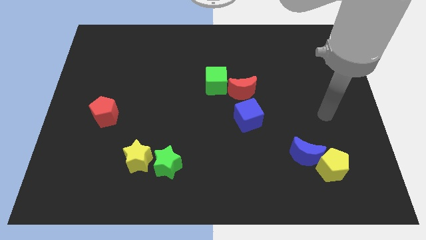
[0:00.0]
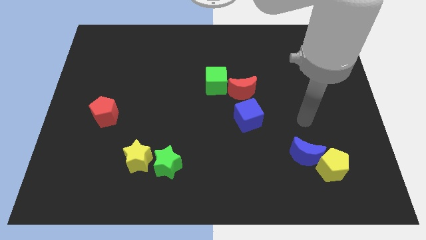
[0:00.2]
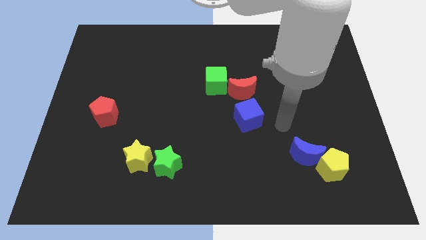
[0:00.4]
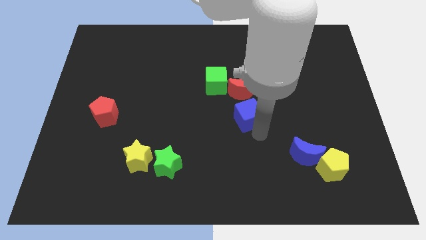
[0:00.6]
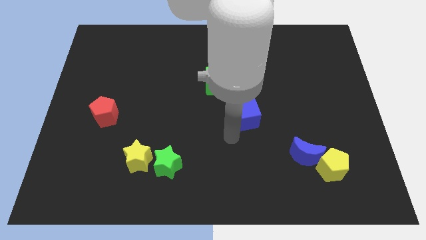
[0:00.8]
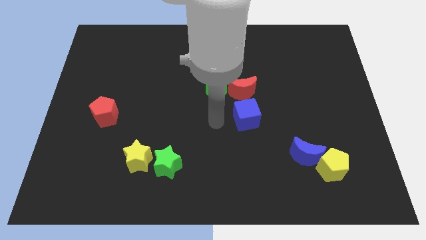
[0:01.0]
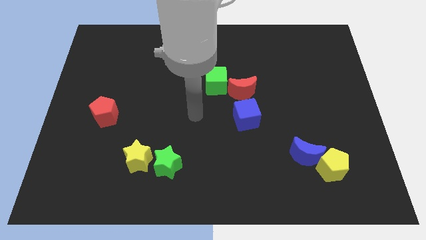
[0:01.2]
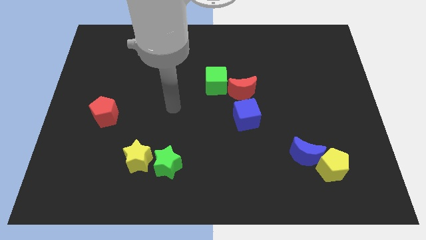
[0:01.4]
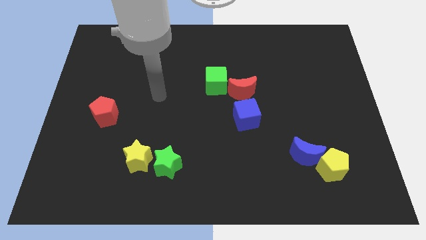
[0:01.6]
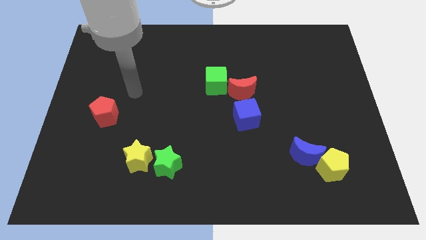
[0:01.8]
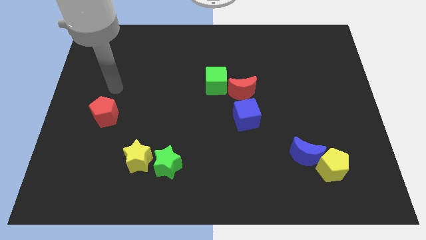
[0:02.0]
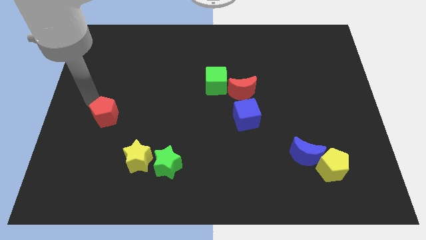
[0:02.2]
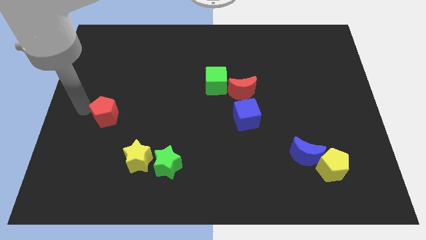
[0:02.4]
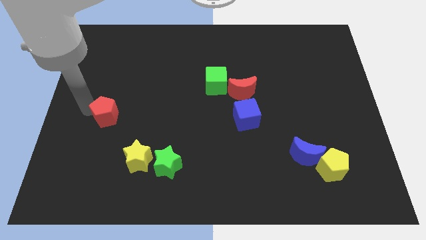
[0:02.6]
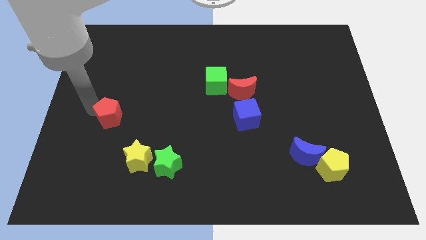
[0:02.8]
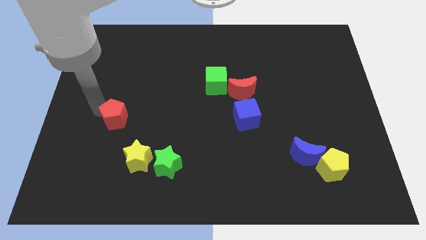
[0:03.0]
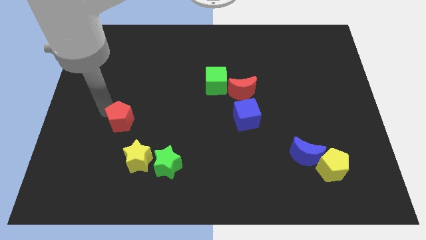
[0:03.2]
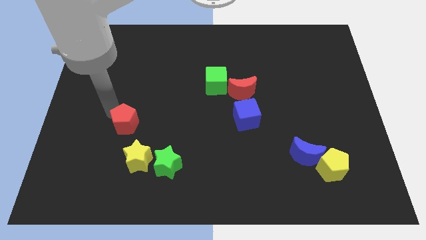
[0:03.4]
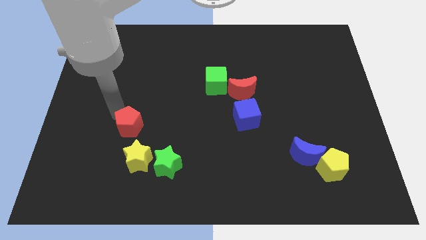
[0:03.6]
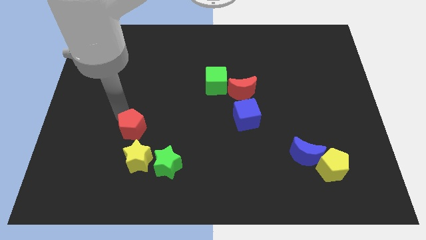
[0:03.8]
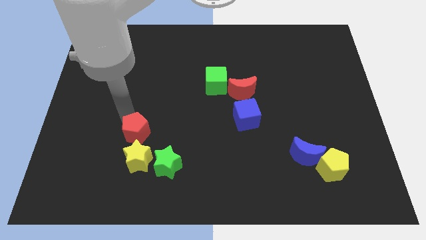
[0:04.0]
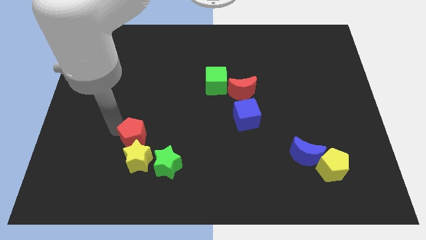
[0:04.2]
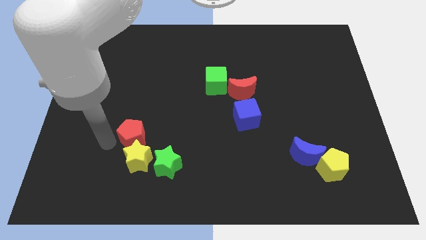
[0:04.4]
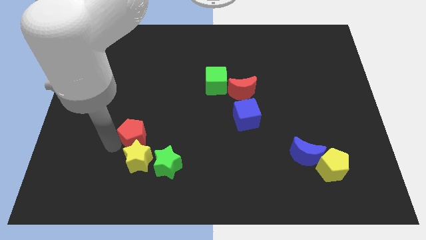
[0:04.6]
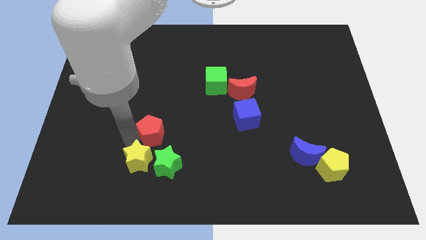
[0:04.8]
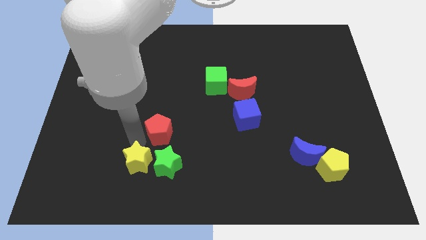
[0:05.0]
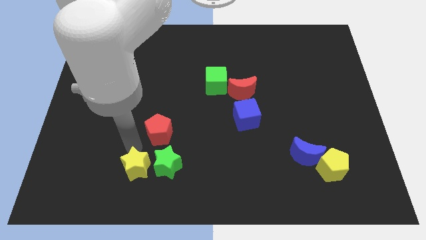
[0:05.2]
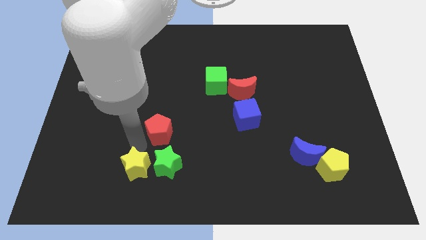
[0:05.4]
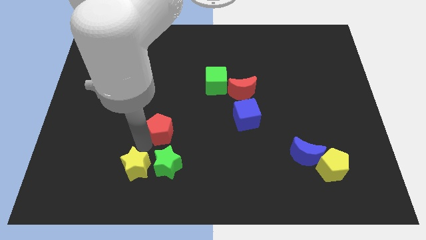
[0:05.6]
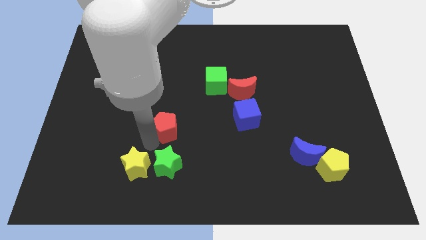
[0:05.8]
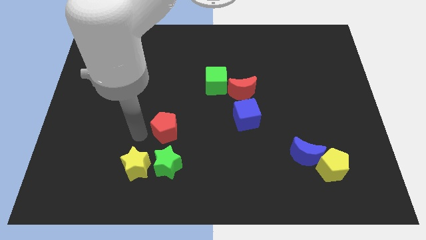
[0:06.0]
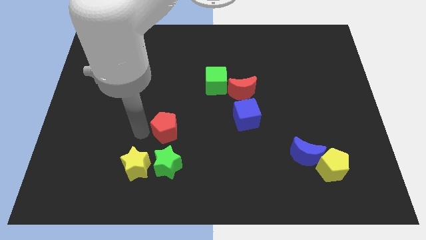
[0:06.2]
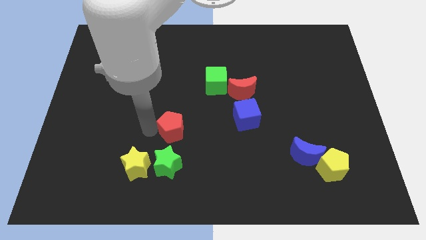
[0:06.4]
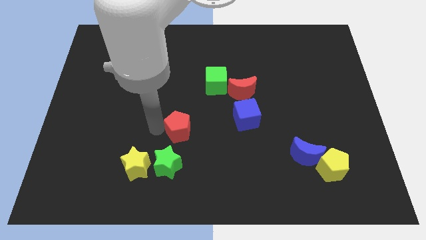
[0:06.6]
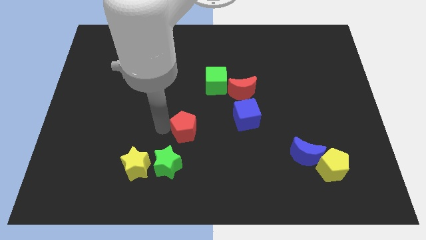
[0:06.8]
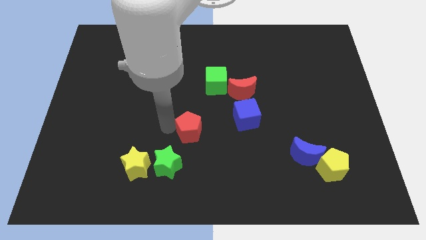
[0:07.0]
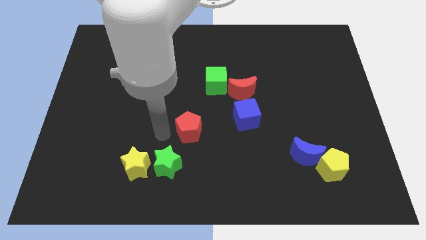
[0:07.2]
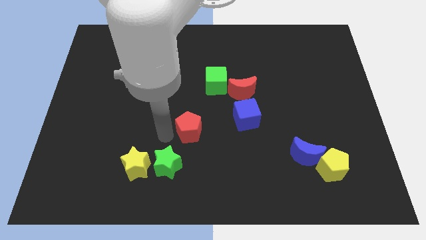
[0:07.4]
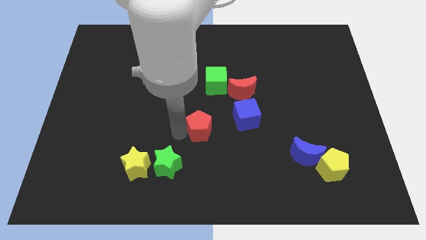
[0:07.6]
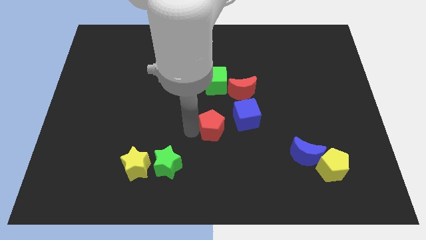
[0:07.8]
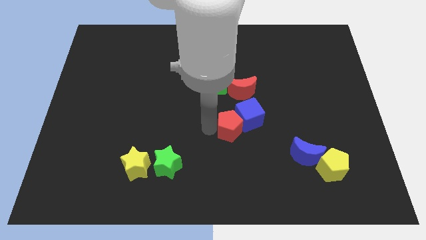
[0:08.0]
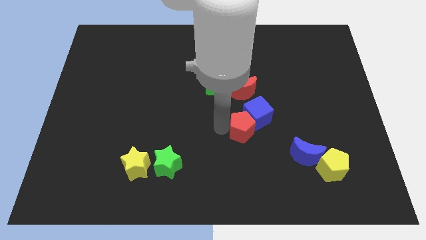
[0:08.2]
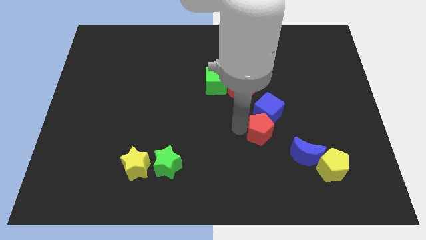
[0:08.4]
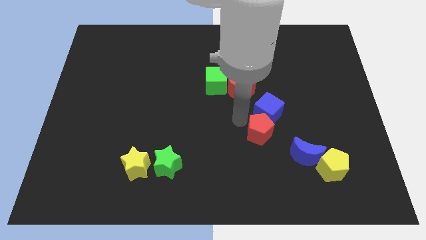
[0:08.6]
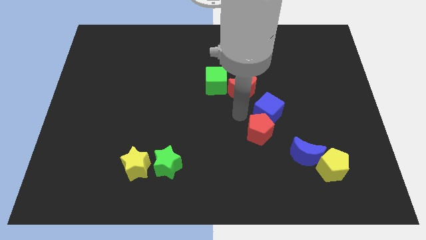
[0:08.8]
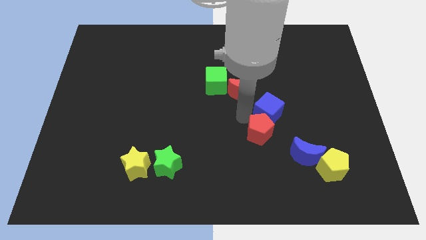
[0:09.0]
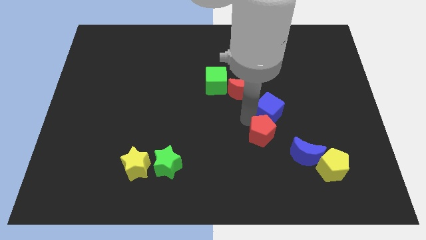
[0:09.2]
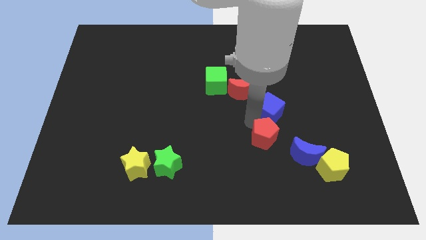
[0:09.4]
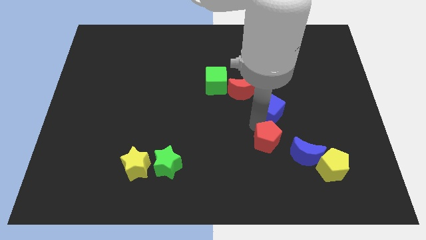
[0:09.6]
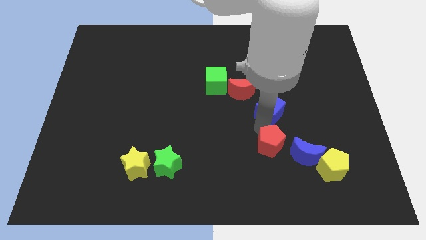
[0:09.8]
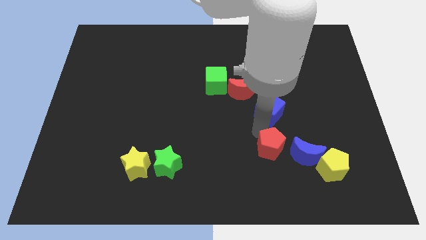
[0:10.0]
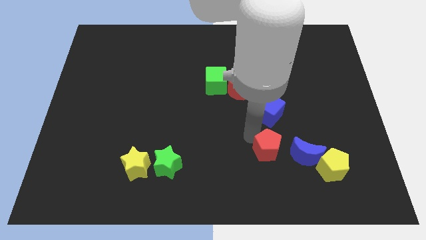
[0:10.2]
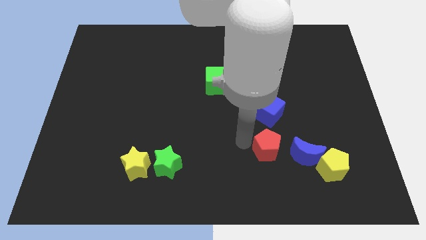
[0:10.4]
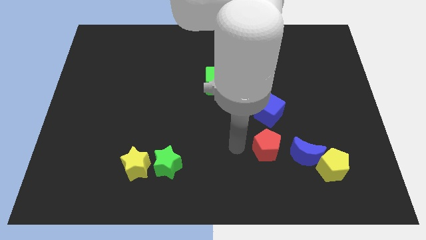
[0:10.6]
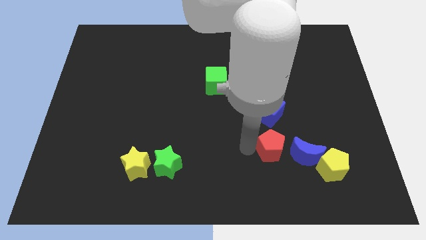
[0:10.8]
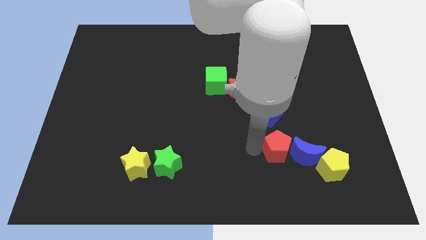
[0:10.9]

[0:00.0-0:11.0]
move the red pentagon next to the blue moon

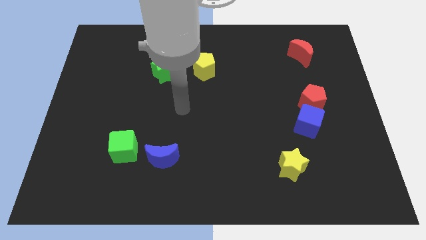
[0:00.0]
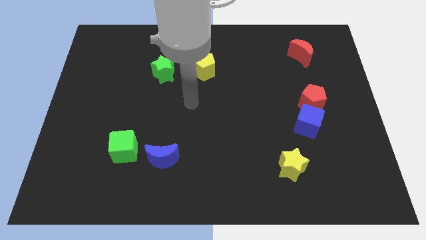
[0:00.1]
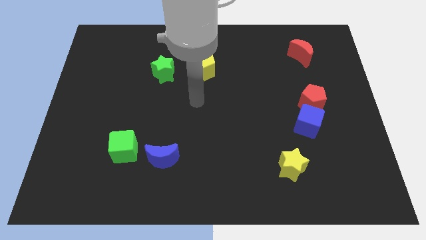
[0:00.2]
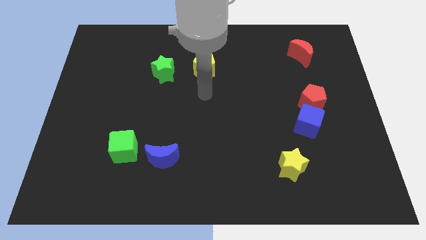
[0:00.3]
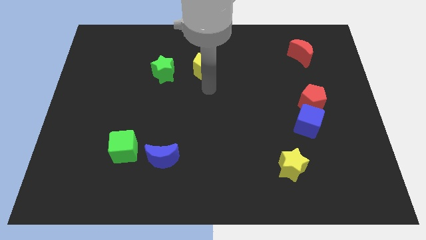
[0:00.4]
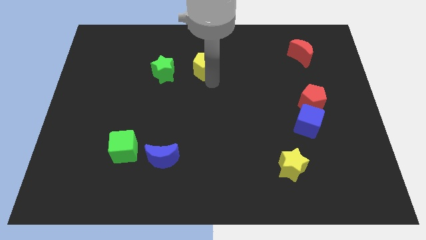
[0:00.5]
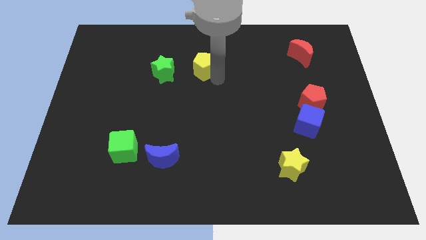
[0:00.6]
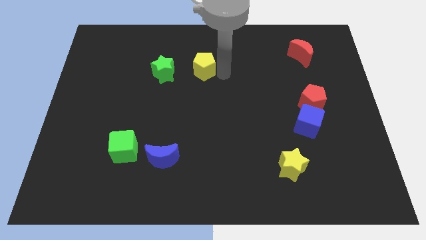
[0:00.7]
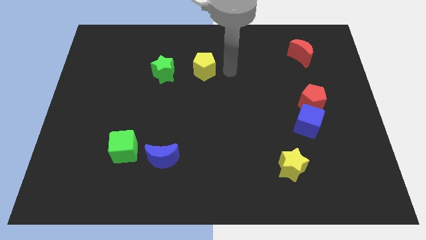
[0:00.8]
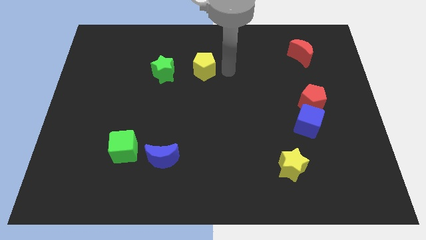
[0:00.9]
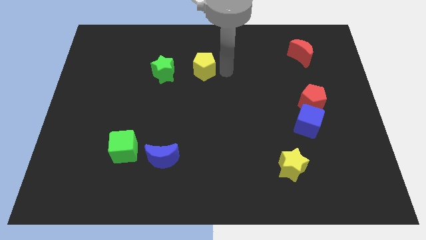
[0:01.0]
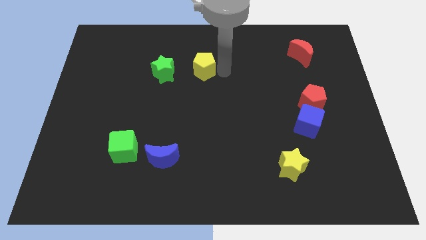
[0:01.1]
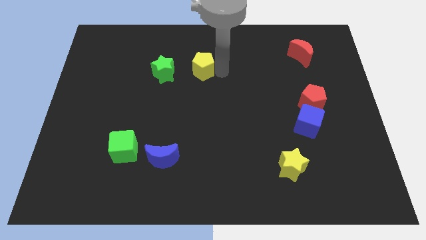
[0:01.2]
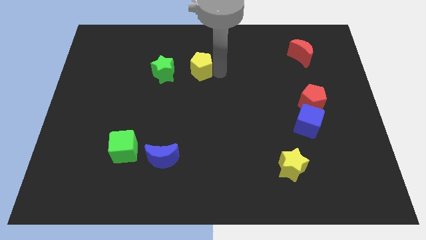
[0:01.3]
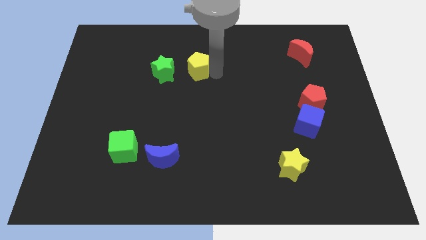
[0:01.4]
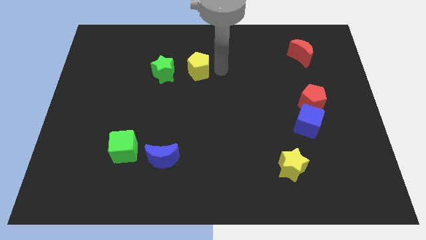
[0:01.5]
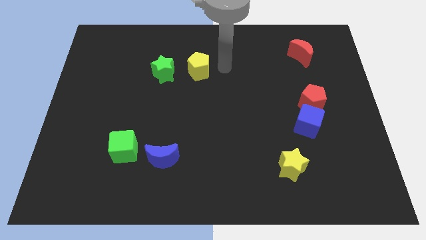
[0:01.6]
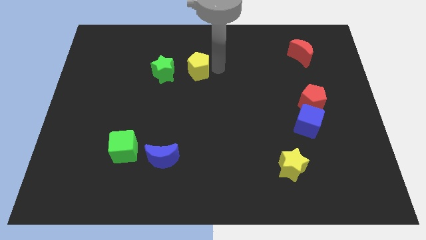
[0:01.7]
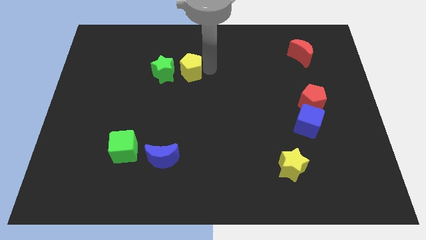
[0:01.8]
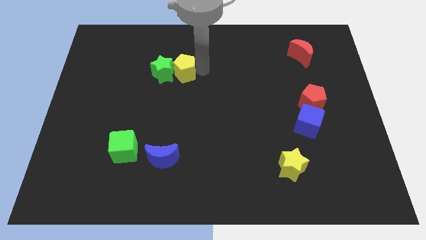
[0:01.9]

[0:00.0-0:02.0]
put the yellow pentagon close to the green star
